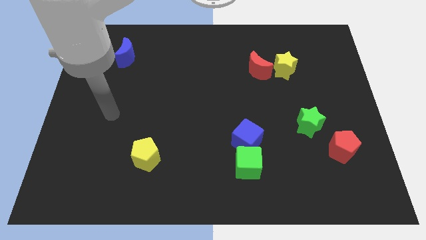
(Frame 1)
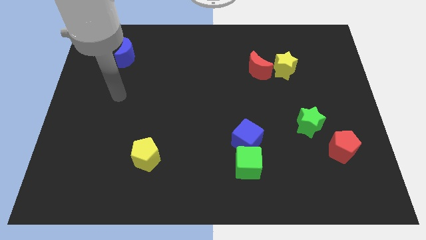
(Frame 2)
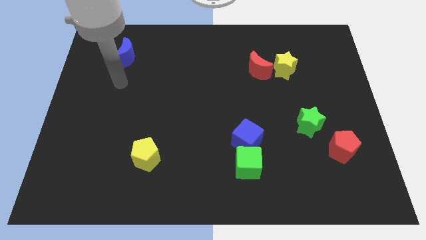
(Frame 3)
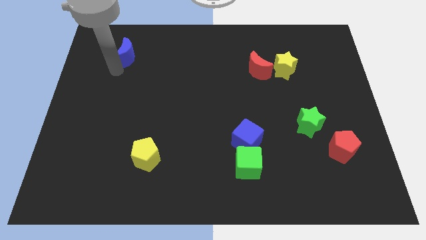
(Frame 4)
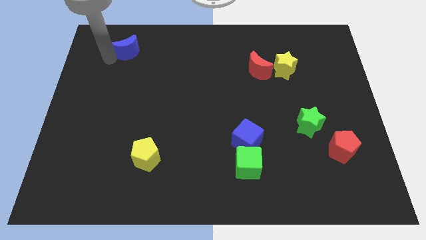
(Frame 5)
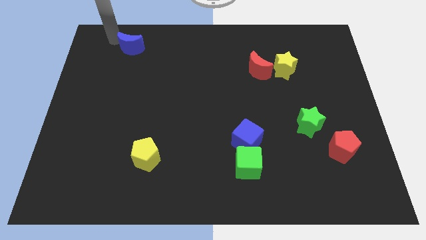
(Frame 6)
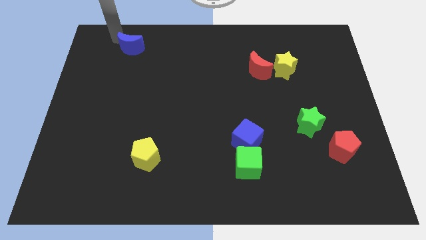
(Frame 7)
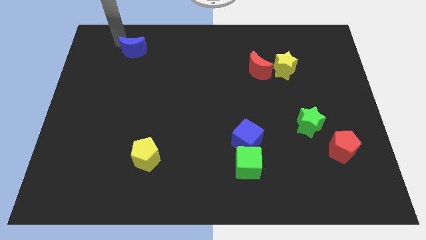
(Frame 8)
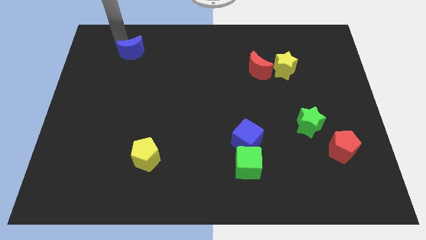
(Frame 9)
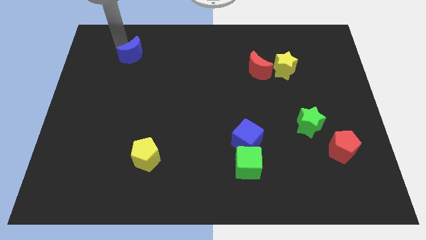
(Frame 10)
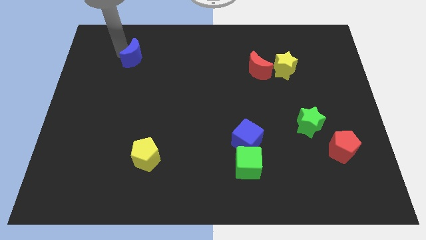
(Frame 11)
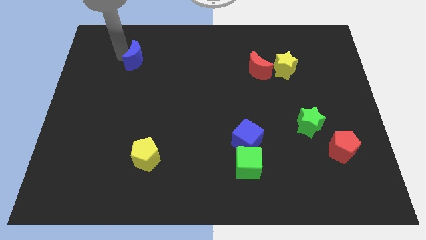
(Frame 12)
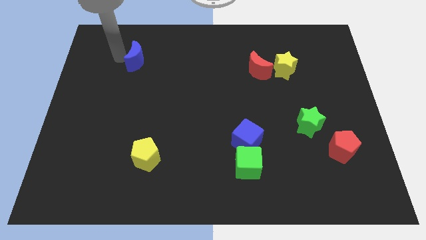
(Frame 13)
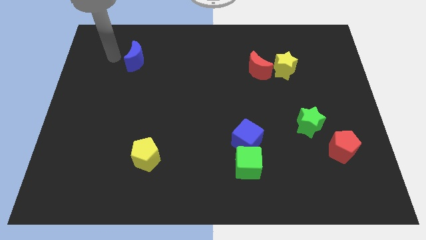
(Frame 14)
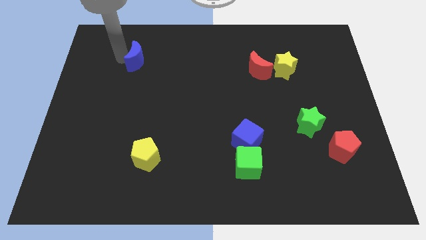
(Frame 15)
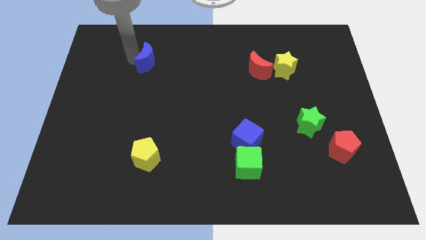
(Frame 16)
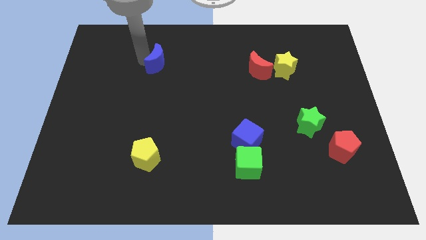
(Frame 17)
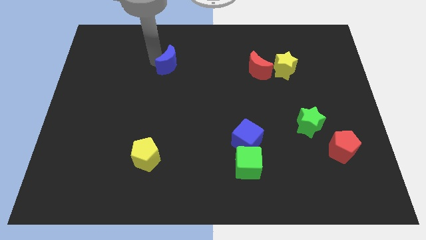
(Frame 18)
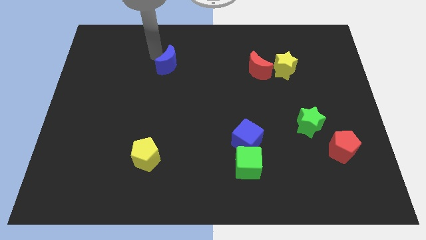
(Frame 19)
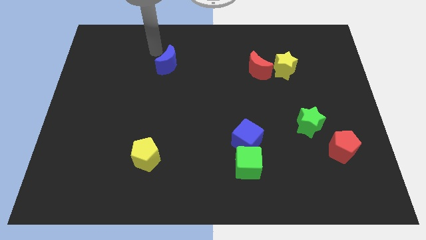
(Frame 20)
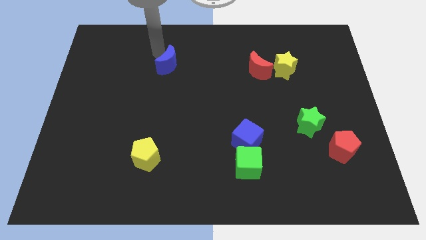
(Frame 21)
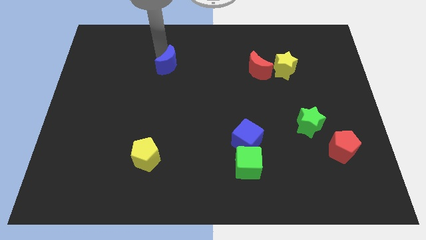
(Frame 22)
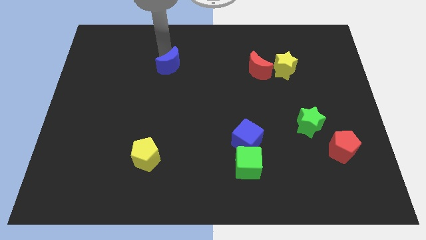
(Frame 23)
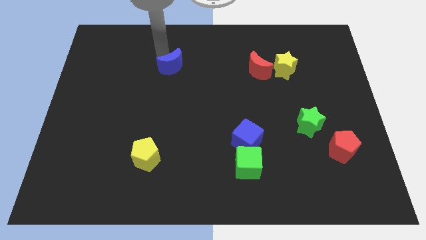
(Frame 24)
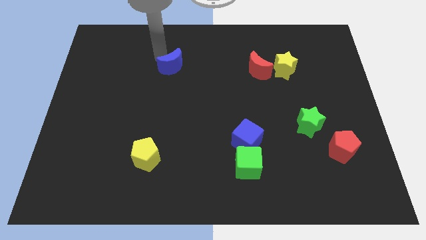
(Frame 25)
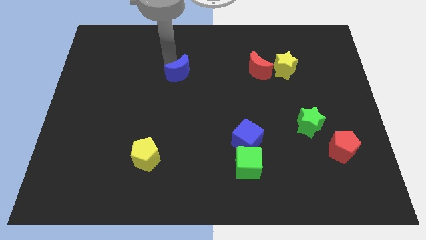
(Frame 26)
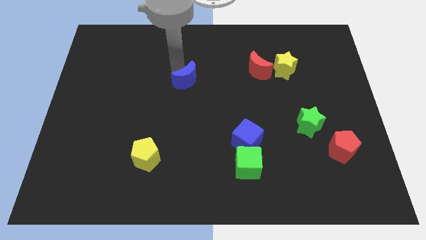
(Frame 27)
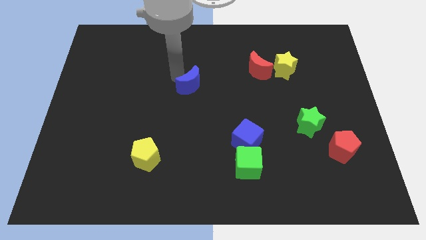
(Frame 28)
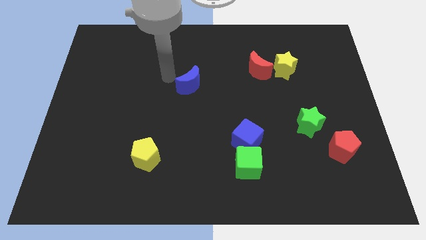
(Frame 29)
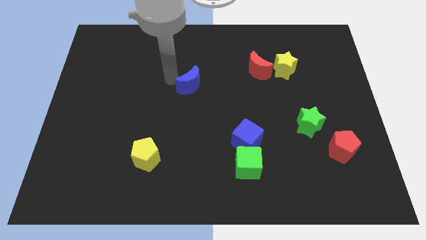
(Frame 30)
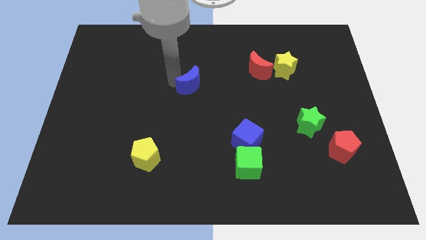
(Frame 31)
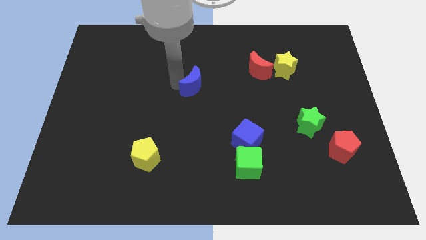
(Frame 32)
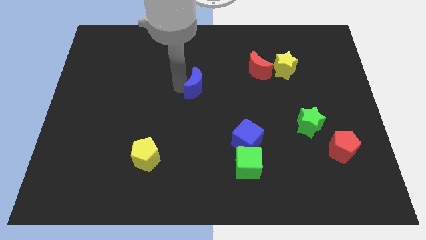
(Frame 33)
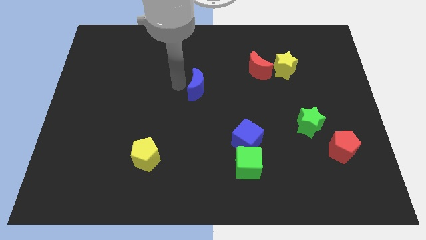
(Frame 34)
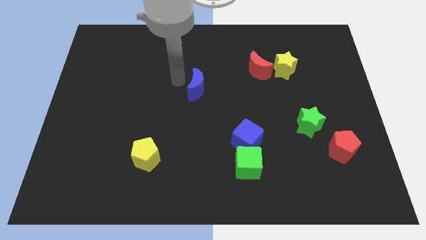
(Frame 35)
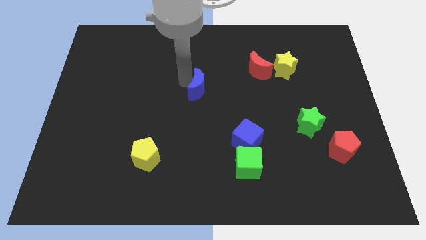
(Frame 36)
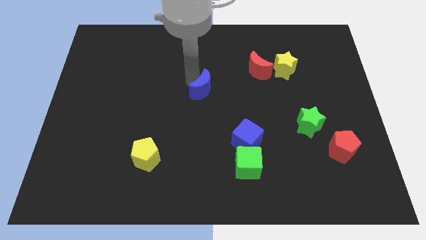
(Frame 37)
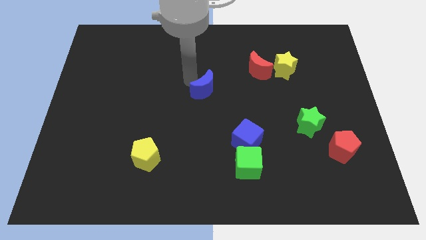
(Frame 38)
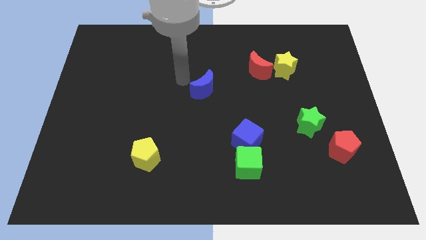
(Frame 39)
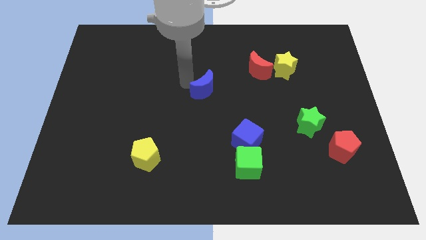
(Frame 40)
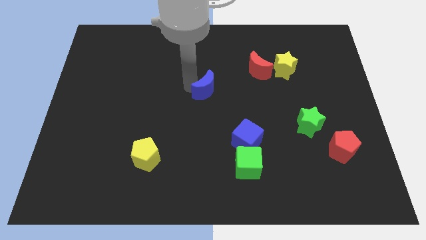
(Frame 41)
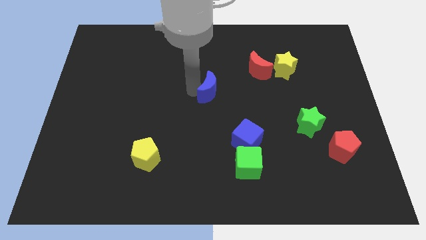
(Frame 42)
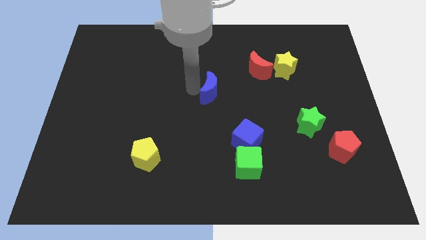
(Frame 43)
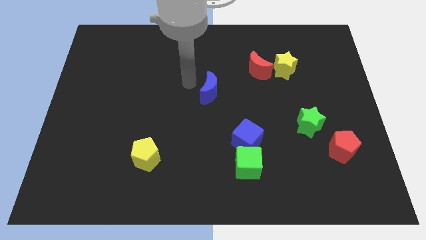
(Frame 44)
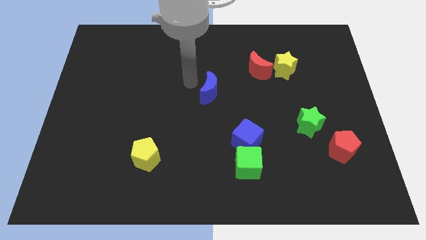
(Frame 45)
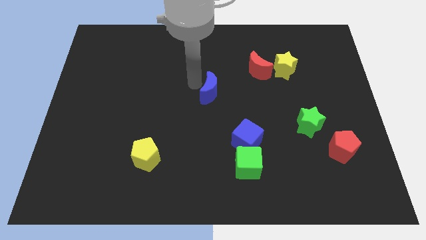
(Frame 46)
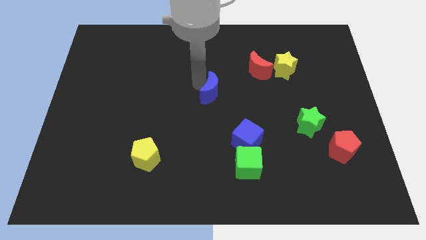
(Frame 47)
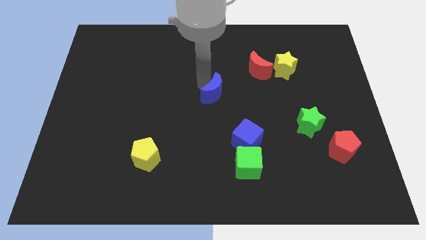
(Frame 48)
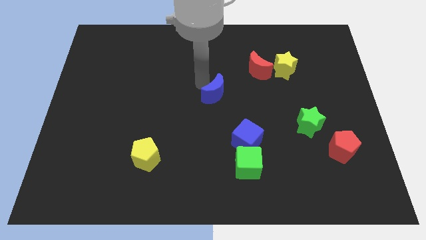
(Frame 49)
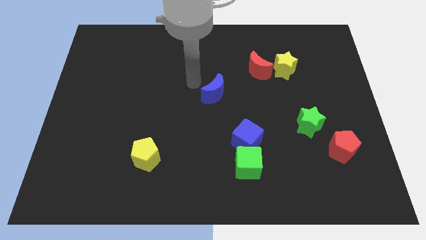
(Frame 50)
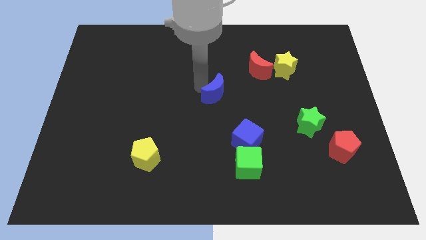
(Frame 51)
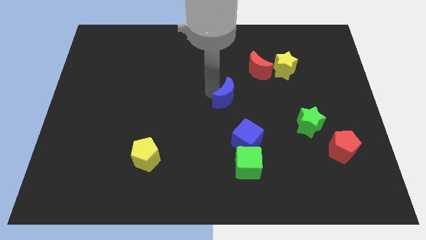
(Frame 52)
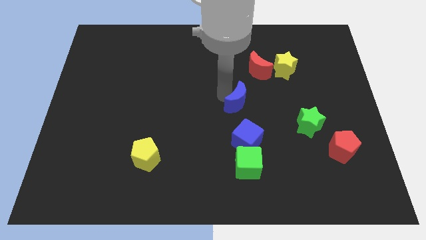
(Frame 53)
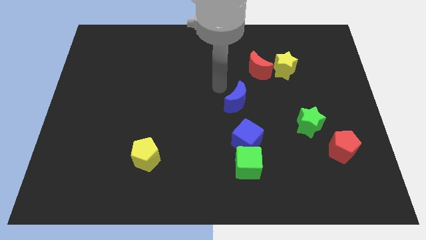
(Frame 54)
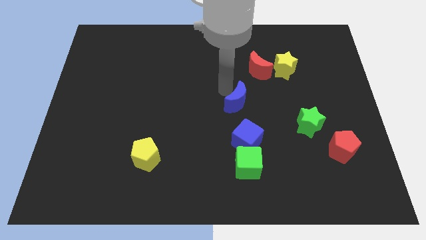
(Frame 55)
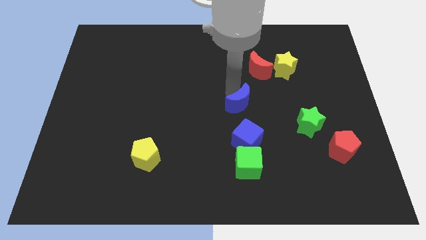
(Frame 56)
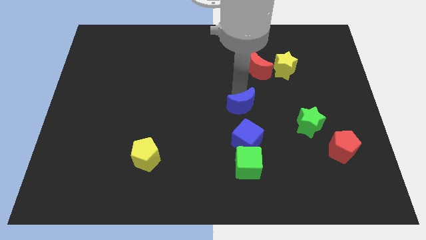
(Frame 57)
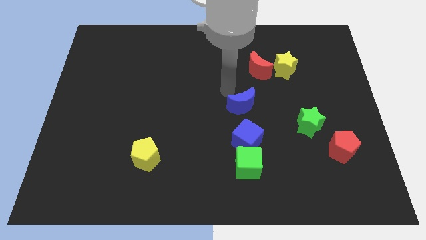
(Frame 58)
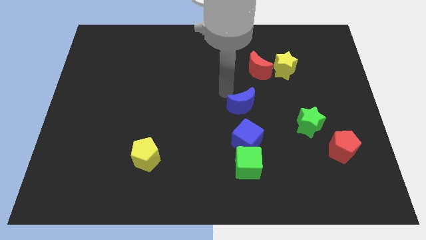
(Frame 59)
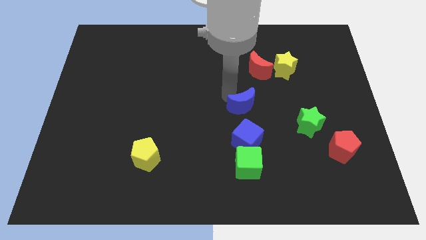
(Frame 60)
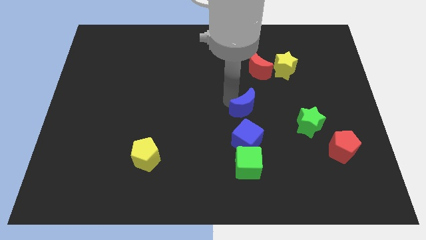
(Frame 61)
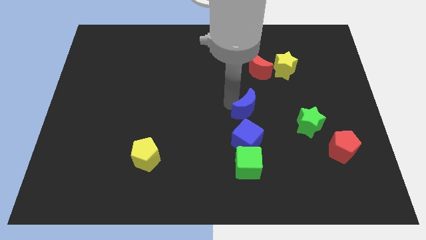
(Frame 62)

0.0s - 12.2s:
slide the blue moon just left of the green star
